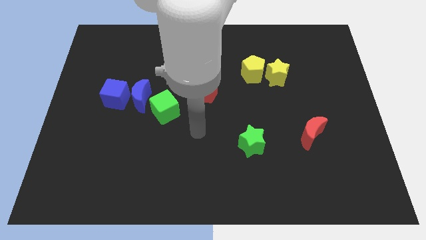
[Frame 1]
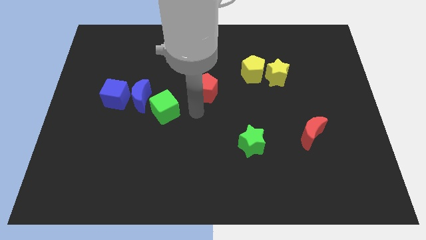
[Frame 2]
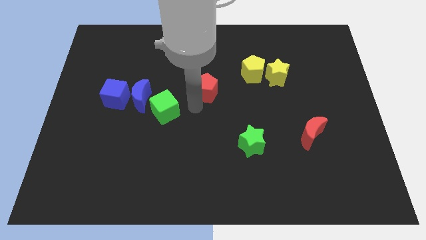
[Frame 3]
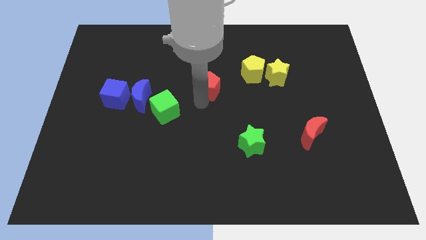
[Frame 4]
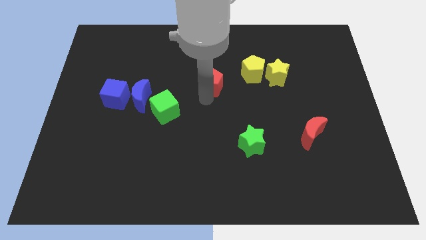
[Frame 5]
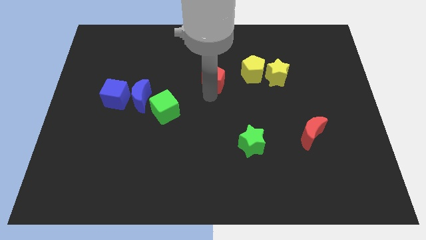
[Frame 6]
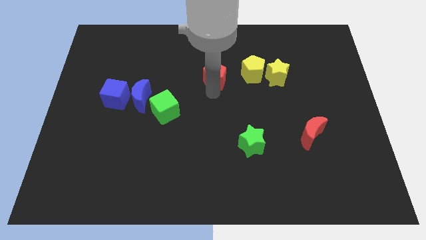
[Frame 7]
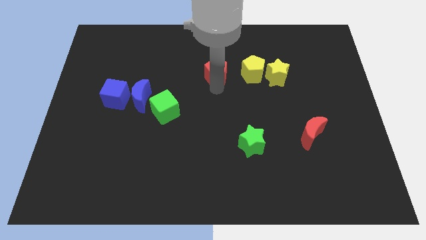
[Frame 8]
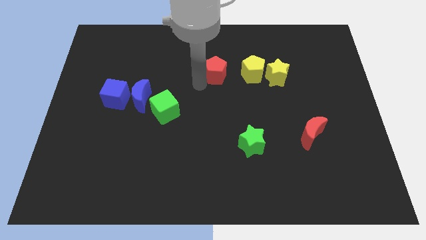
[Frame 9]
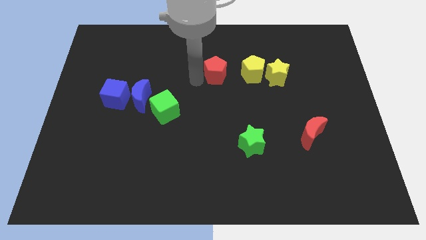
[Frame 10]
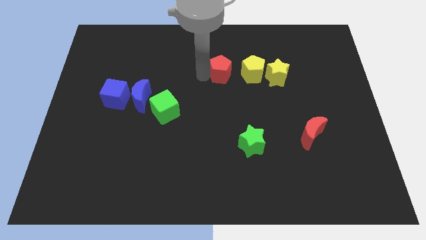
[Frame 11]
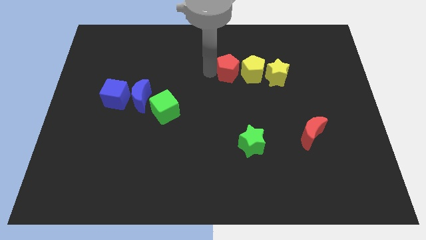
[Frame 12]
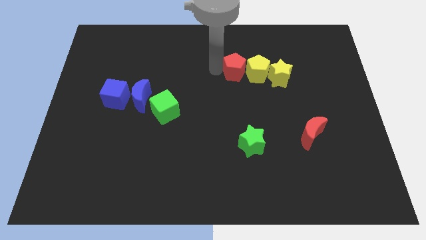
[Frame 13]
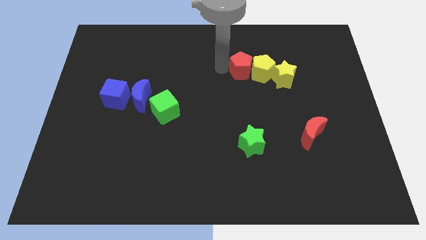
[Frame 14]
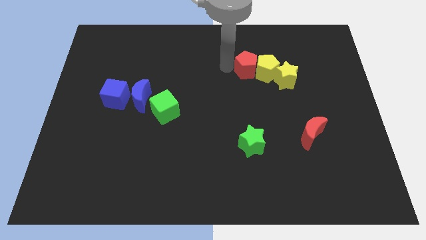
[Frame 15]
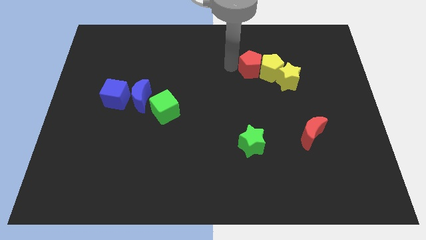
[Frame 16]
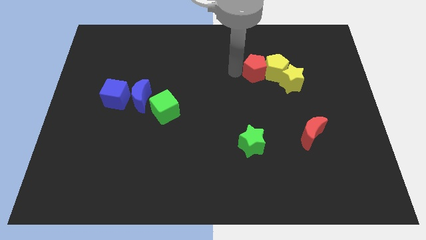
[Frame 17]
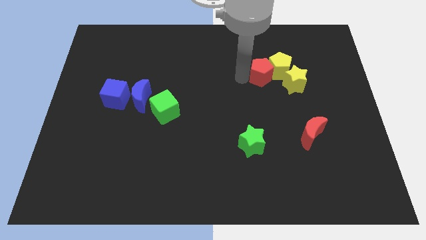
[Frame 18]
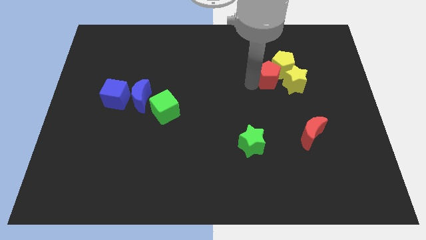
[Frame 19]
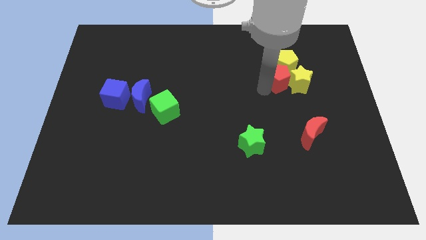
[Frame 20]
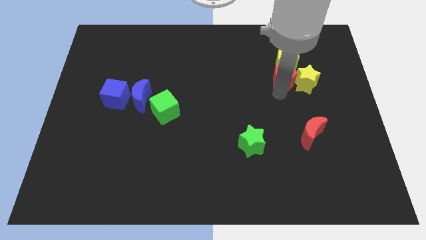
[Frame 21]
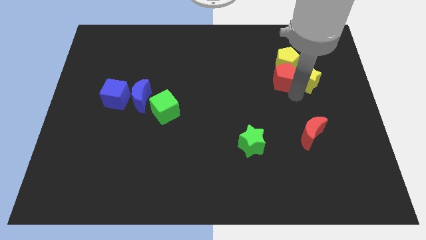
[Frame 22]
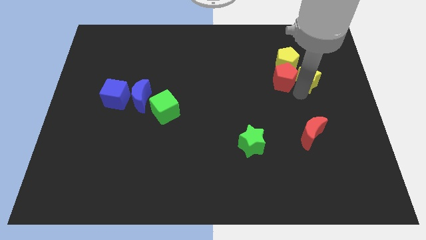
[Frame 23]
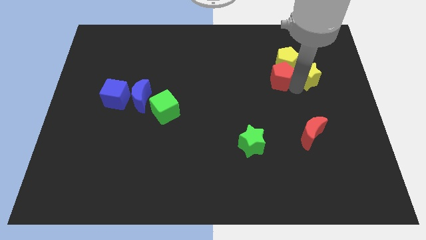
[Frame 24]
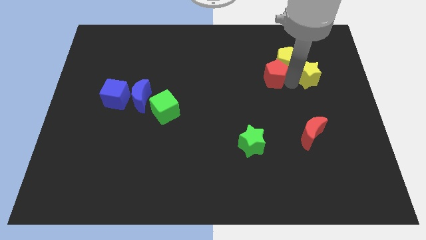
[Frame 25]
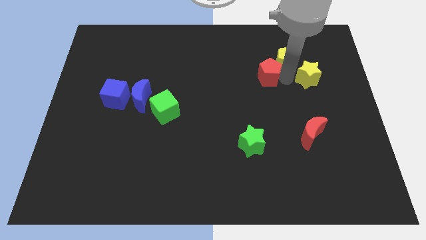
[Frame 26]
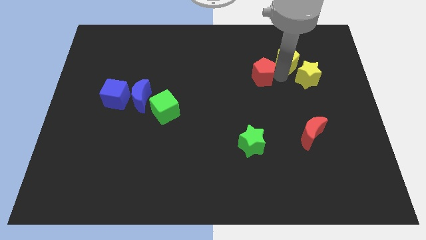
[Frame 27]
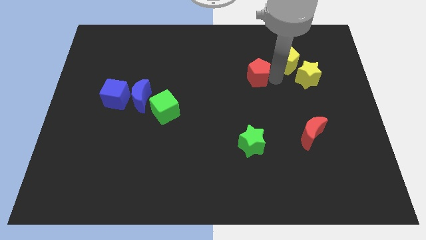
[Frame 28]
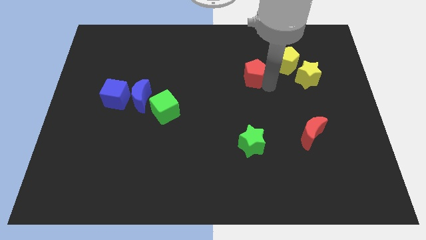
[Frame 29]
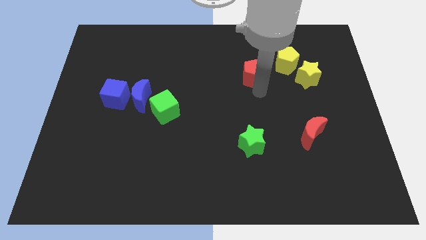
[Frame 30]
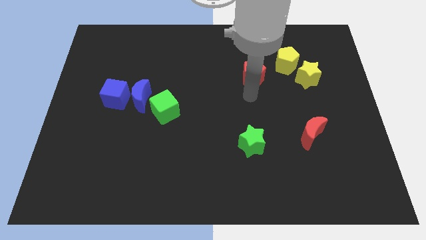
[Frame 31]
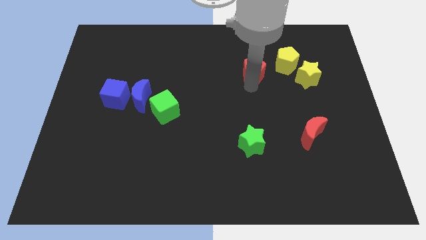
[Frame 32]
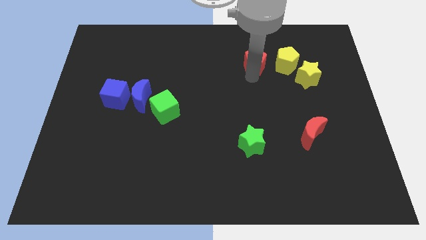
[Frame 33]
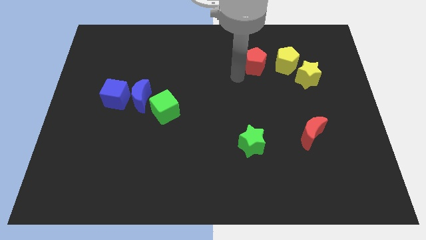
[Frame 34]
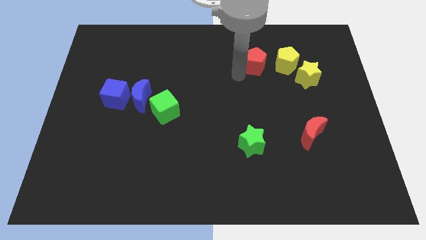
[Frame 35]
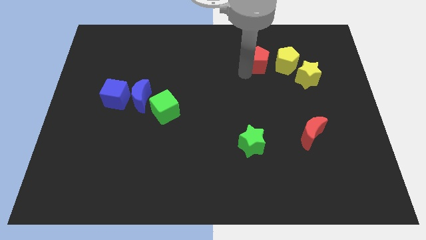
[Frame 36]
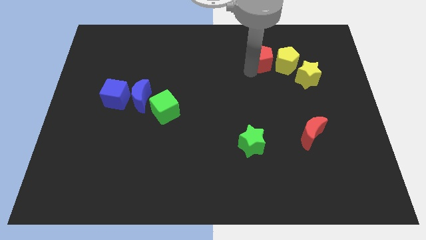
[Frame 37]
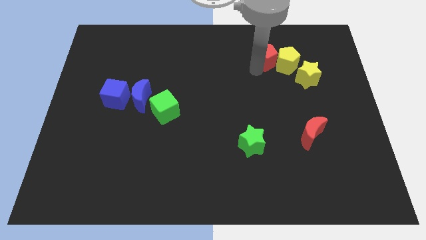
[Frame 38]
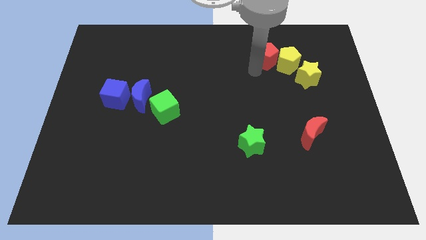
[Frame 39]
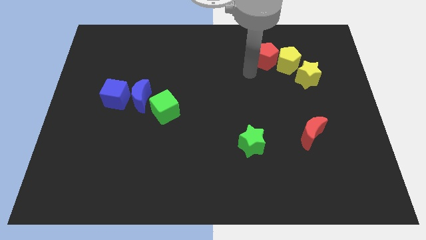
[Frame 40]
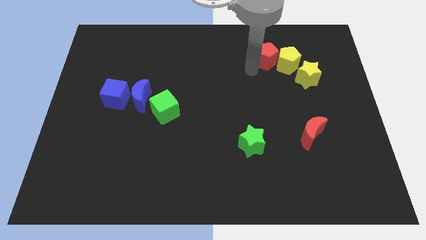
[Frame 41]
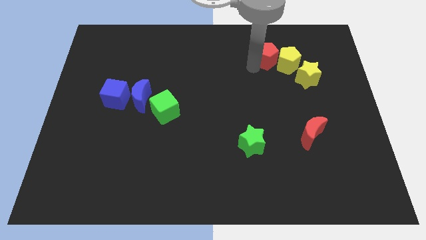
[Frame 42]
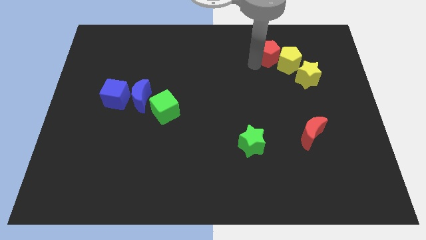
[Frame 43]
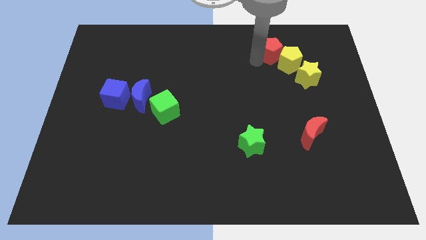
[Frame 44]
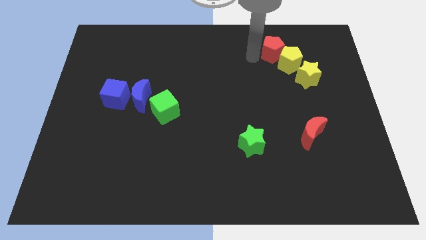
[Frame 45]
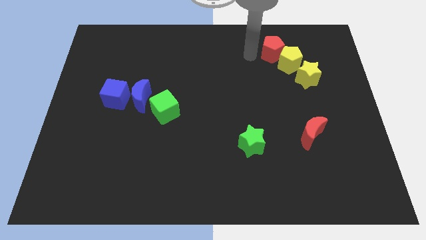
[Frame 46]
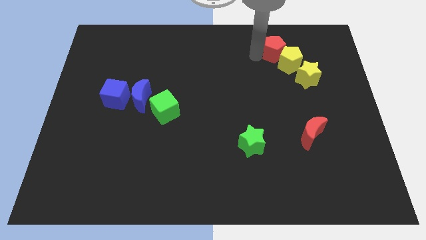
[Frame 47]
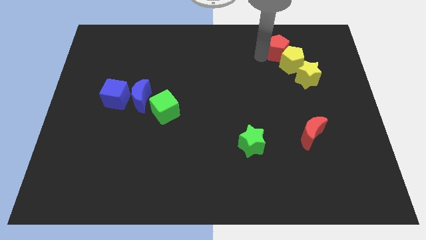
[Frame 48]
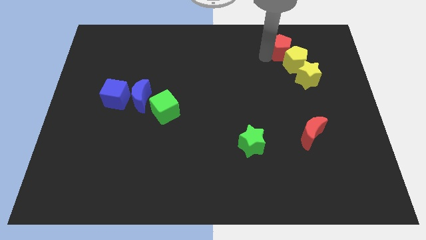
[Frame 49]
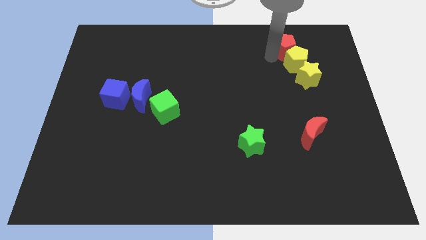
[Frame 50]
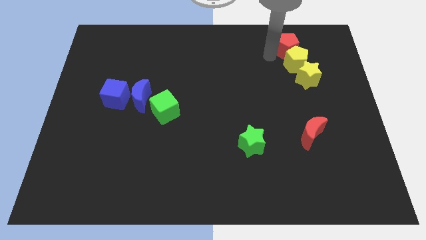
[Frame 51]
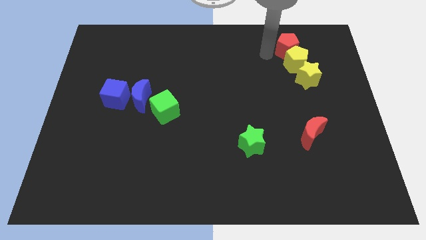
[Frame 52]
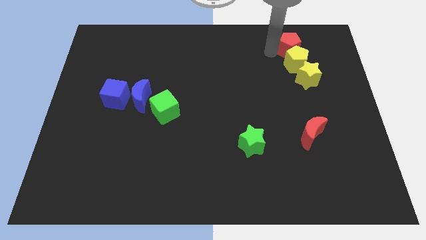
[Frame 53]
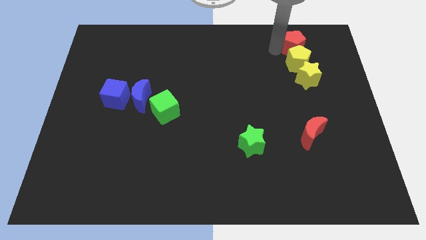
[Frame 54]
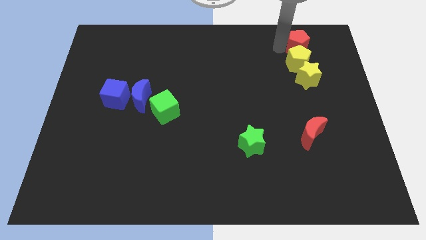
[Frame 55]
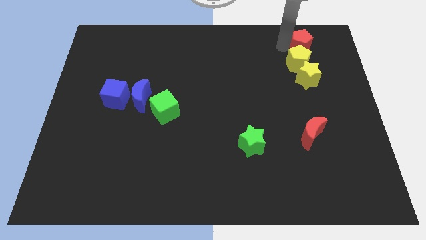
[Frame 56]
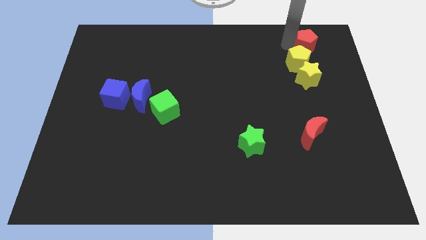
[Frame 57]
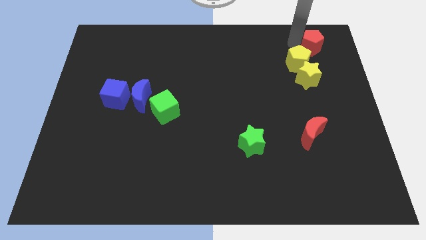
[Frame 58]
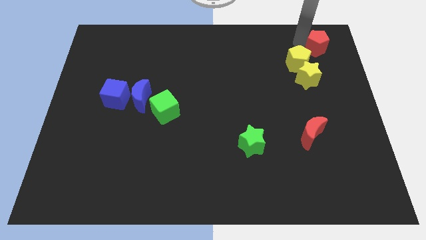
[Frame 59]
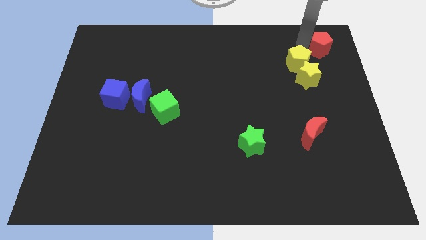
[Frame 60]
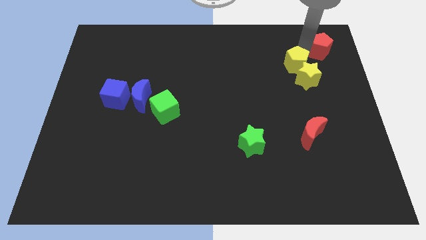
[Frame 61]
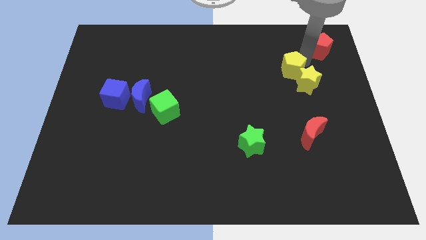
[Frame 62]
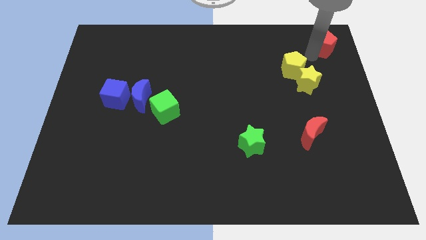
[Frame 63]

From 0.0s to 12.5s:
move the red pentagon to the top right
